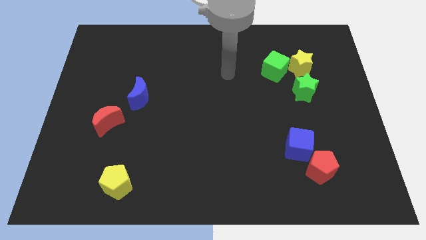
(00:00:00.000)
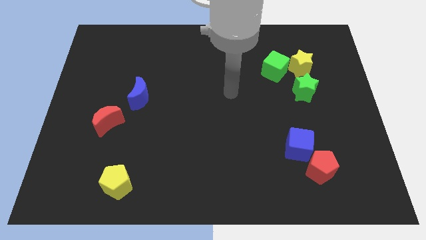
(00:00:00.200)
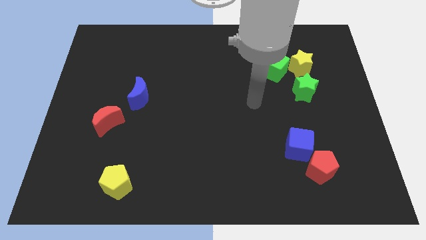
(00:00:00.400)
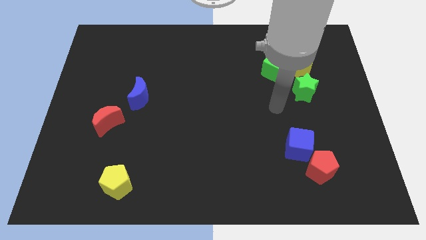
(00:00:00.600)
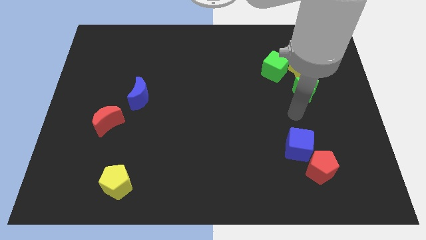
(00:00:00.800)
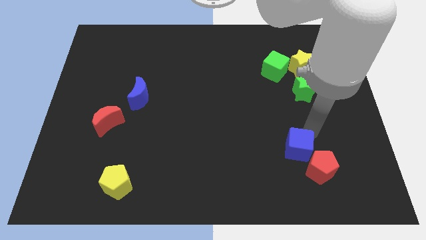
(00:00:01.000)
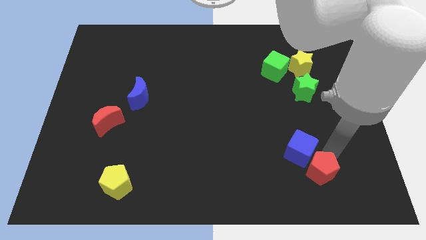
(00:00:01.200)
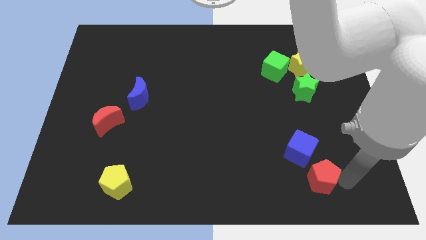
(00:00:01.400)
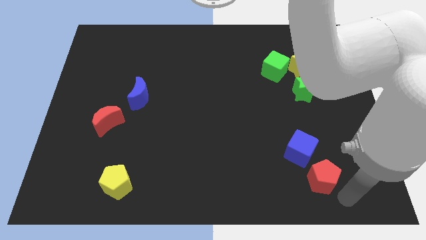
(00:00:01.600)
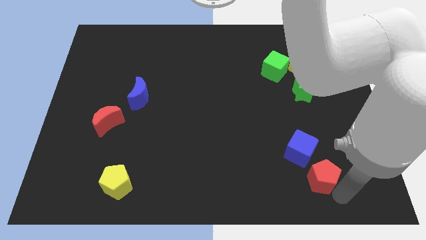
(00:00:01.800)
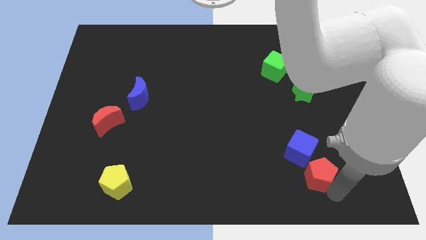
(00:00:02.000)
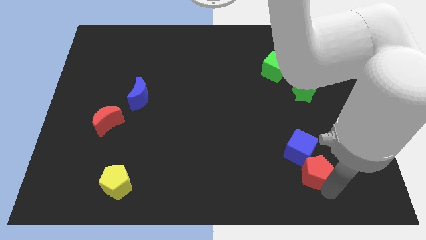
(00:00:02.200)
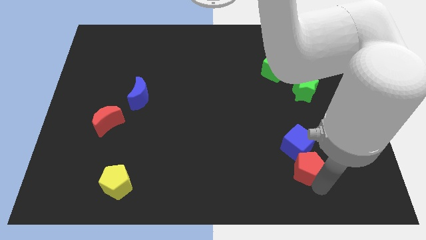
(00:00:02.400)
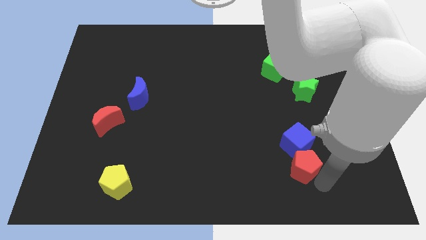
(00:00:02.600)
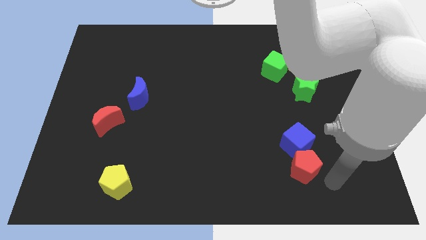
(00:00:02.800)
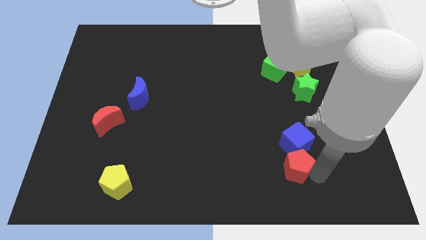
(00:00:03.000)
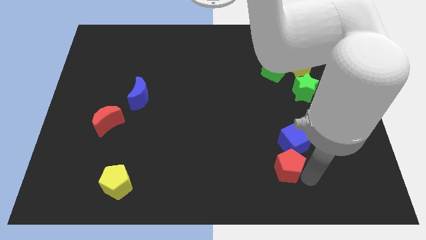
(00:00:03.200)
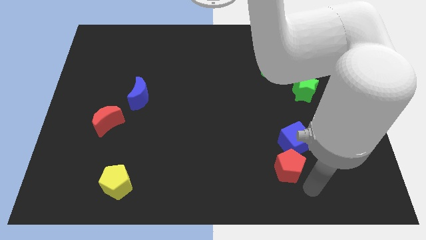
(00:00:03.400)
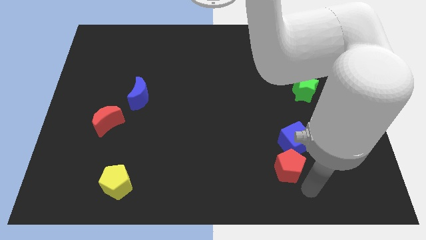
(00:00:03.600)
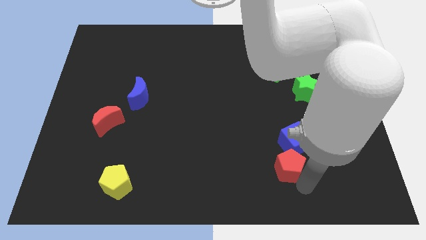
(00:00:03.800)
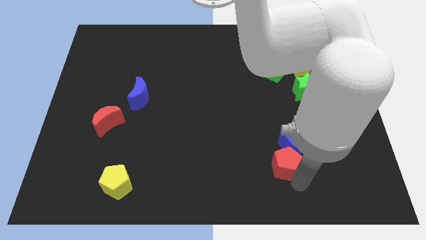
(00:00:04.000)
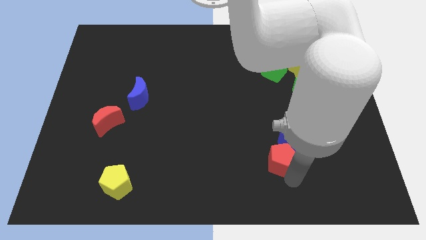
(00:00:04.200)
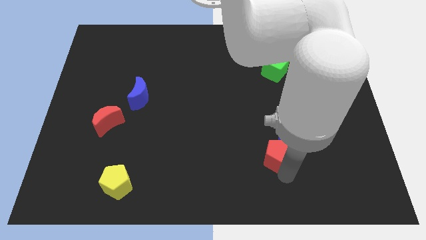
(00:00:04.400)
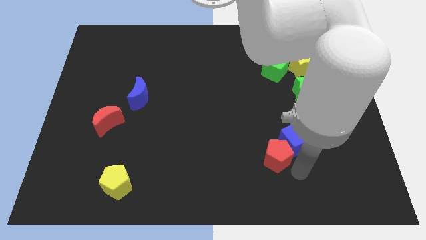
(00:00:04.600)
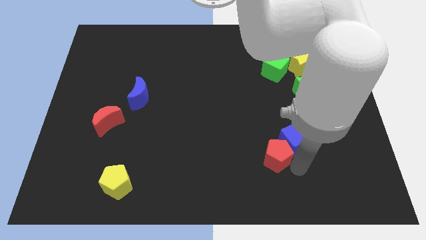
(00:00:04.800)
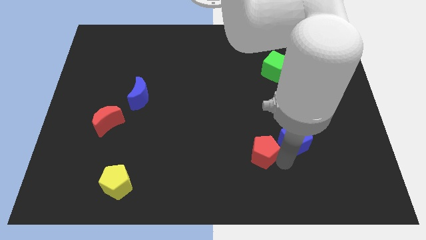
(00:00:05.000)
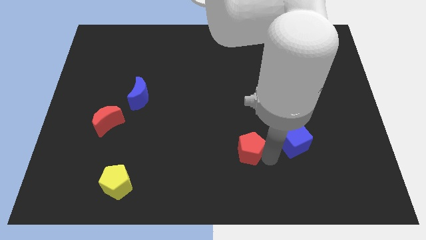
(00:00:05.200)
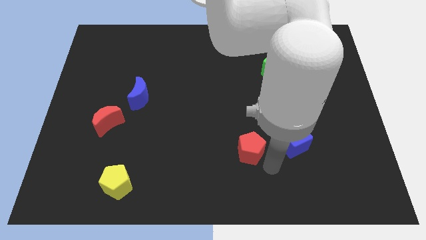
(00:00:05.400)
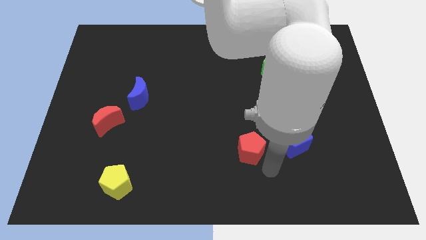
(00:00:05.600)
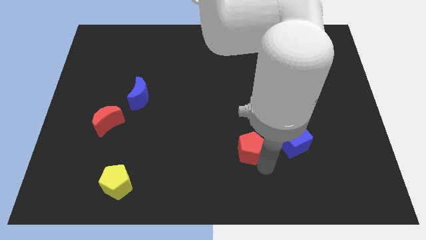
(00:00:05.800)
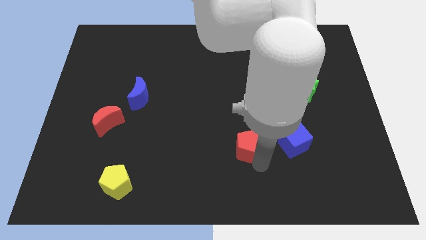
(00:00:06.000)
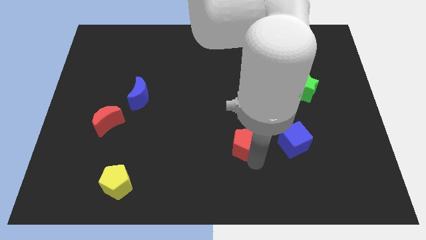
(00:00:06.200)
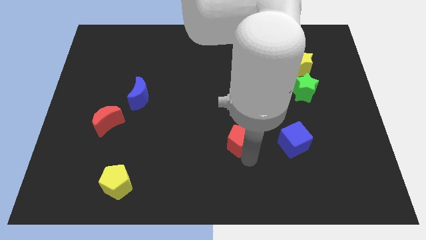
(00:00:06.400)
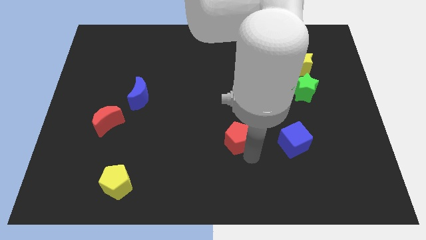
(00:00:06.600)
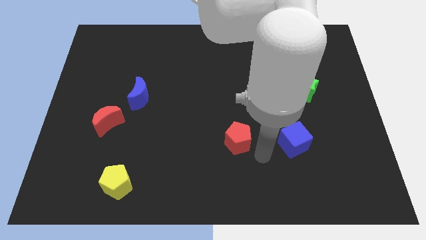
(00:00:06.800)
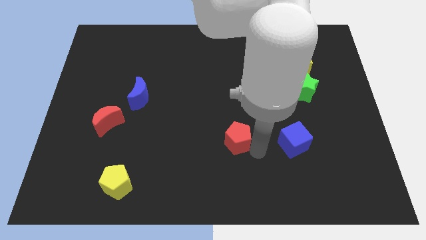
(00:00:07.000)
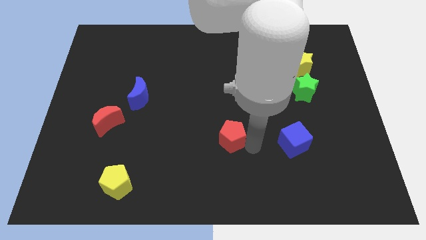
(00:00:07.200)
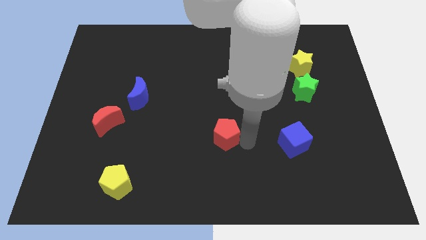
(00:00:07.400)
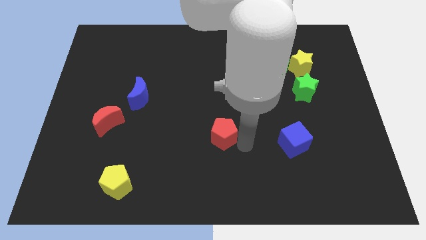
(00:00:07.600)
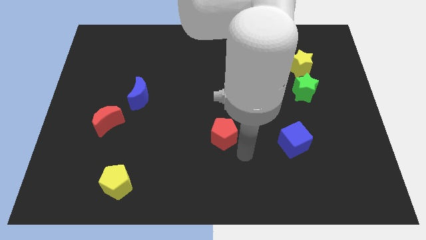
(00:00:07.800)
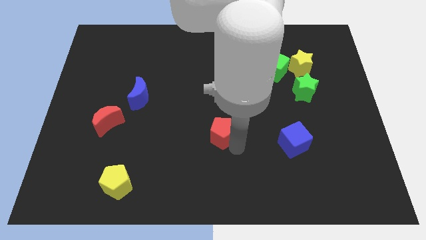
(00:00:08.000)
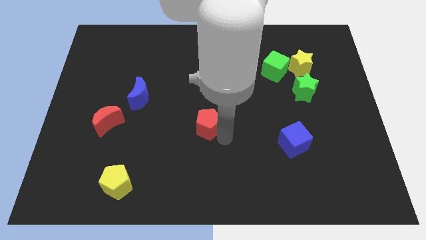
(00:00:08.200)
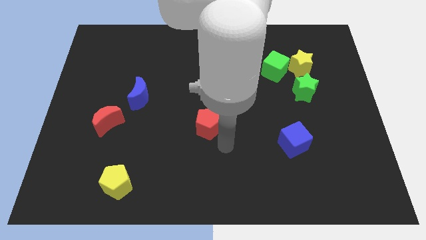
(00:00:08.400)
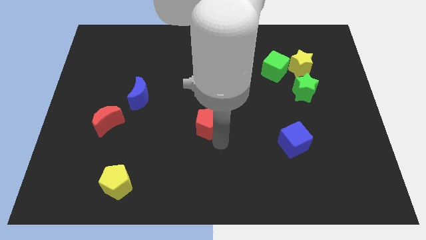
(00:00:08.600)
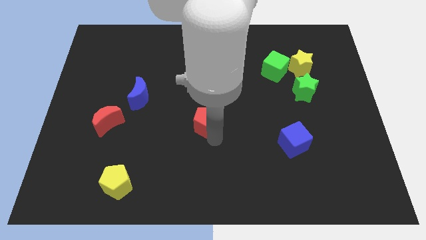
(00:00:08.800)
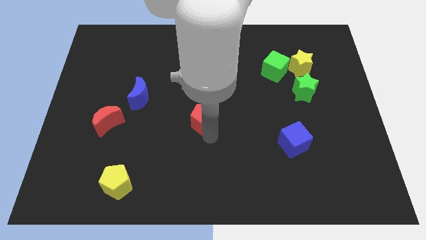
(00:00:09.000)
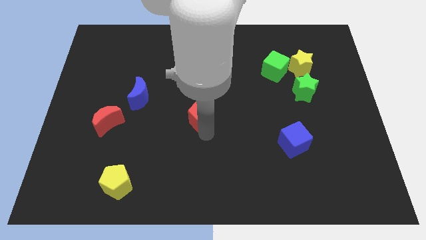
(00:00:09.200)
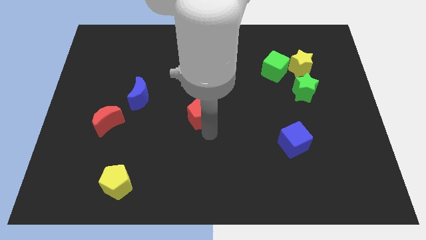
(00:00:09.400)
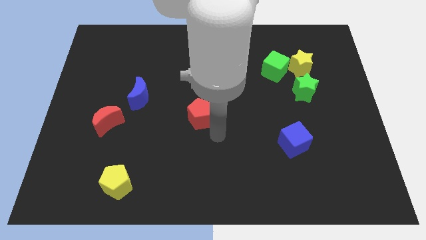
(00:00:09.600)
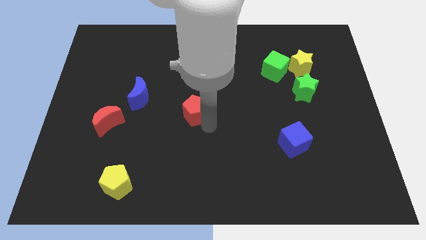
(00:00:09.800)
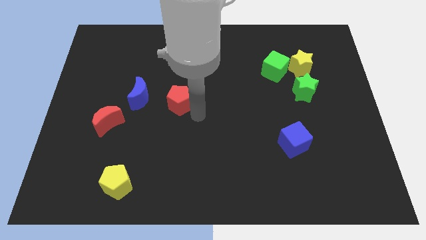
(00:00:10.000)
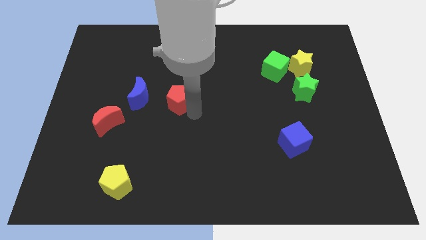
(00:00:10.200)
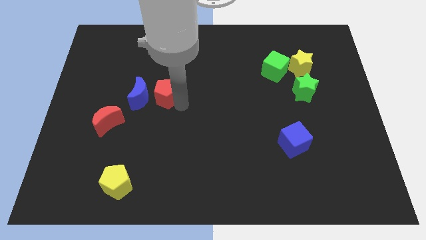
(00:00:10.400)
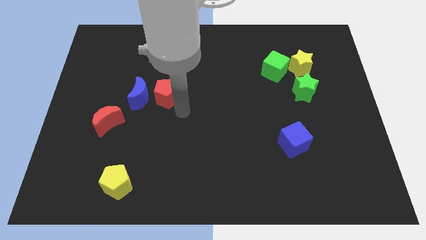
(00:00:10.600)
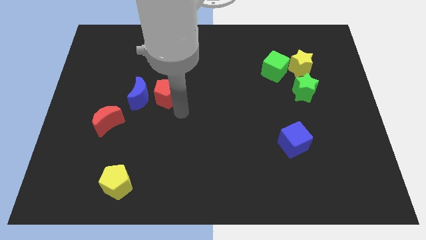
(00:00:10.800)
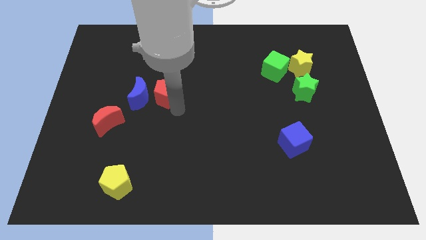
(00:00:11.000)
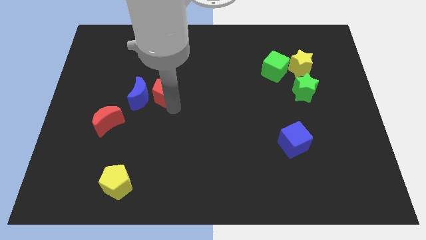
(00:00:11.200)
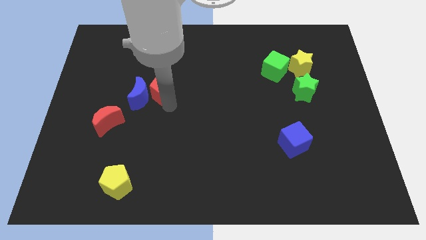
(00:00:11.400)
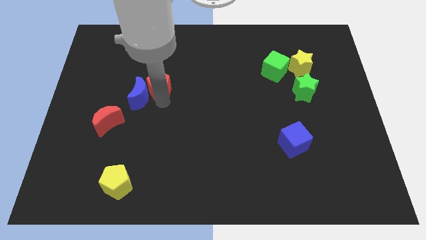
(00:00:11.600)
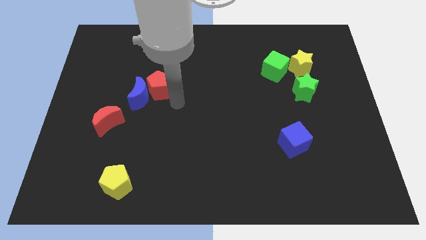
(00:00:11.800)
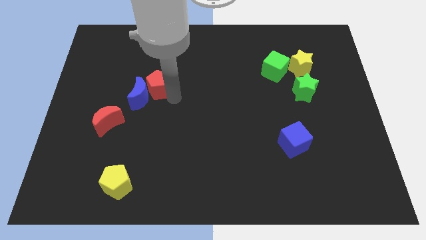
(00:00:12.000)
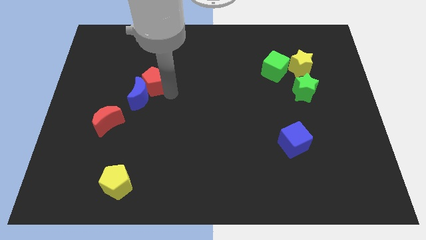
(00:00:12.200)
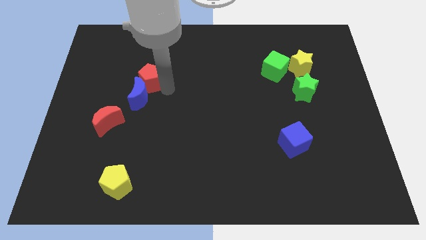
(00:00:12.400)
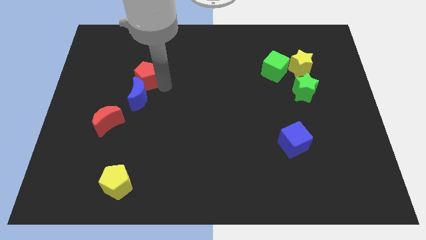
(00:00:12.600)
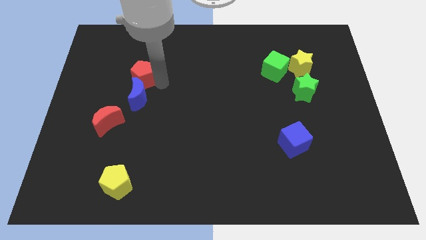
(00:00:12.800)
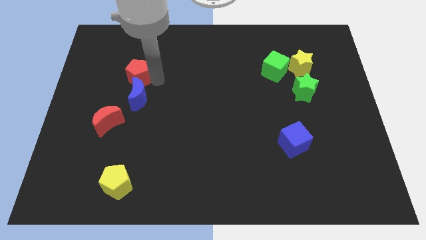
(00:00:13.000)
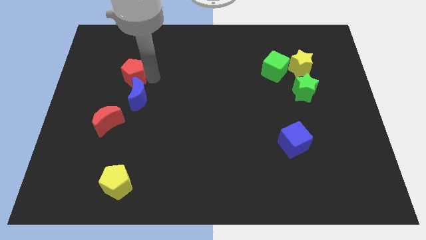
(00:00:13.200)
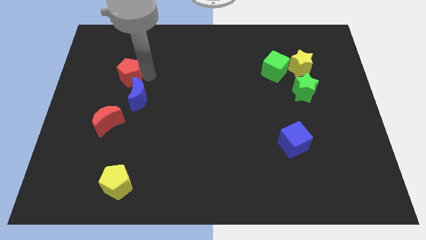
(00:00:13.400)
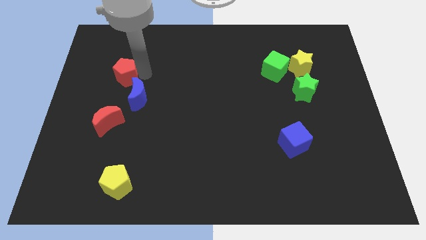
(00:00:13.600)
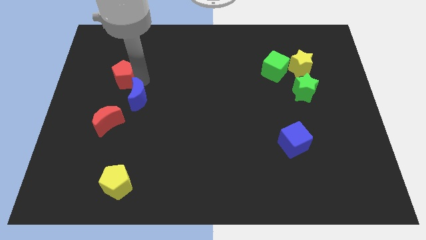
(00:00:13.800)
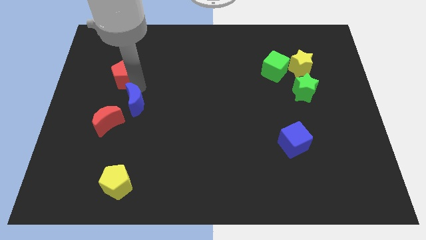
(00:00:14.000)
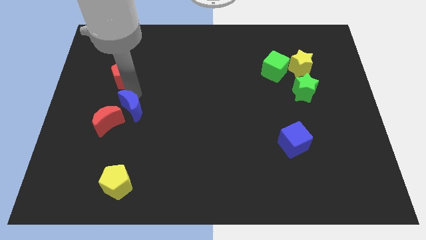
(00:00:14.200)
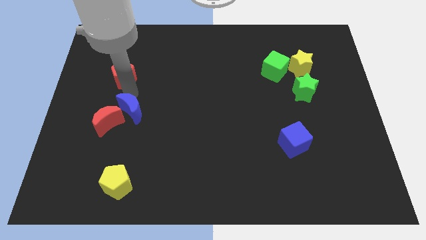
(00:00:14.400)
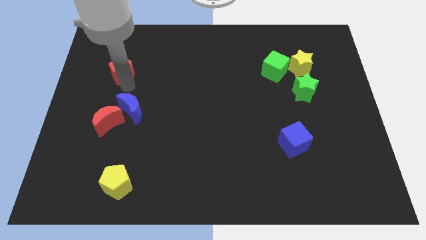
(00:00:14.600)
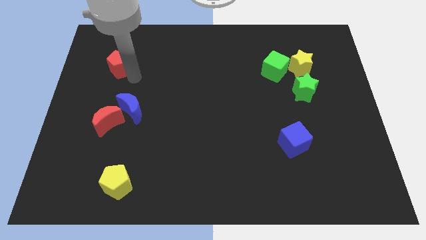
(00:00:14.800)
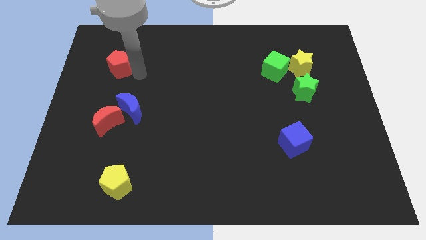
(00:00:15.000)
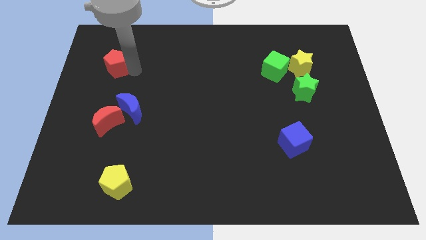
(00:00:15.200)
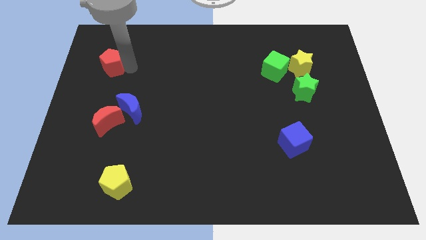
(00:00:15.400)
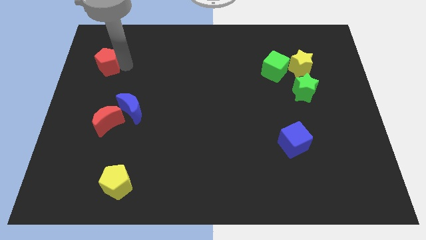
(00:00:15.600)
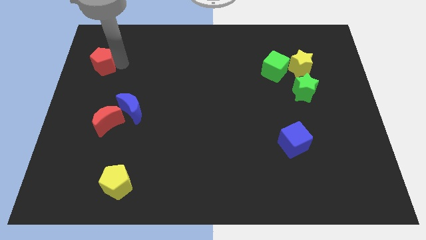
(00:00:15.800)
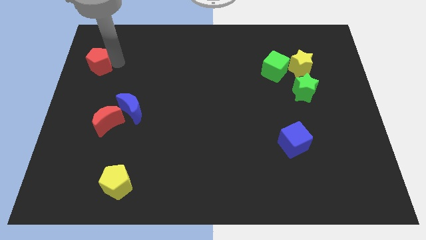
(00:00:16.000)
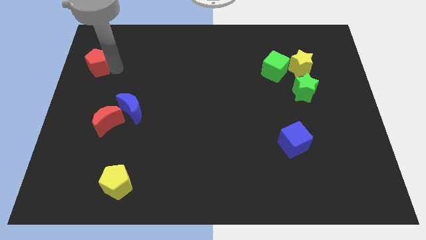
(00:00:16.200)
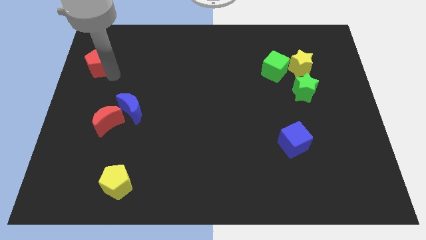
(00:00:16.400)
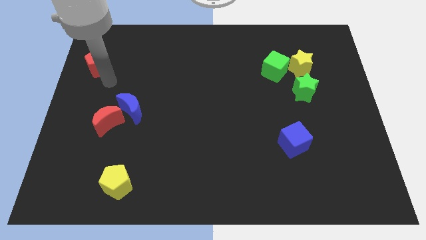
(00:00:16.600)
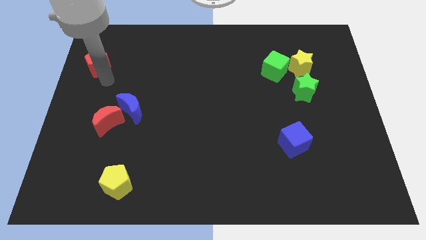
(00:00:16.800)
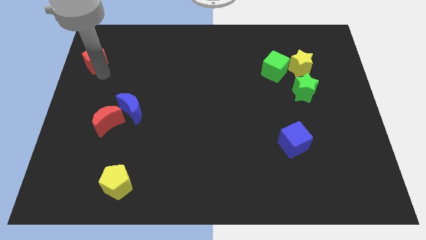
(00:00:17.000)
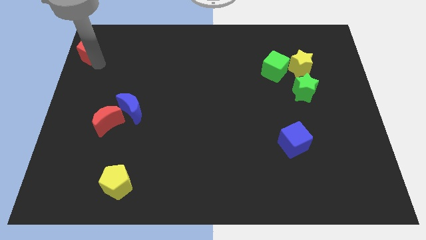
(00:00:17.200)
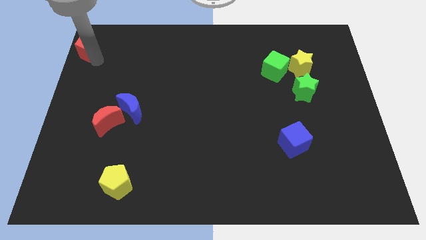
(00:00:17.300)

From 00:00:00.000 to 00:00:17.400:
move the red pentagon to the upper left corner
